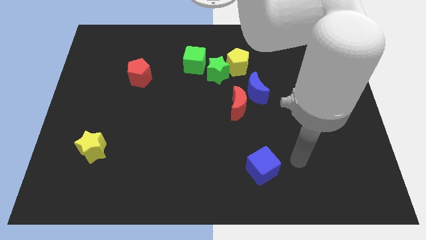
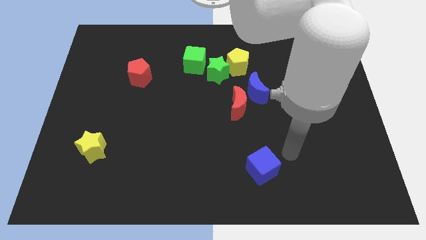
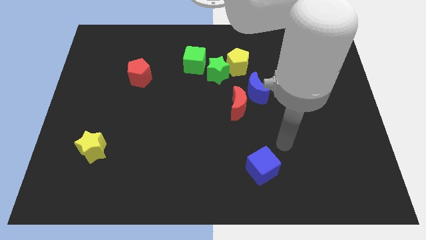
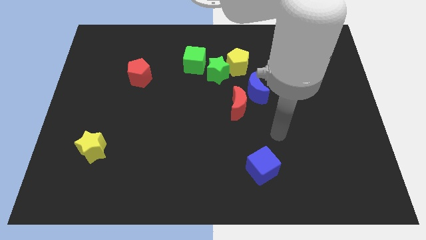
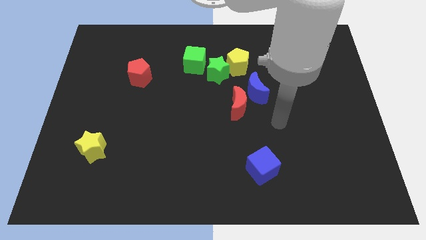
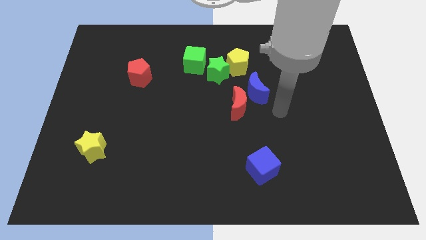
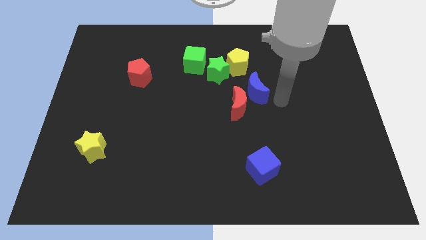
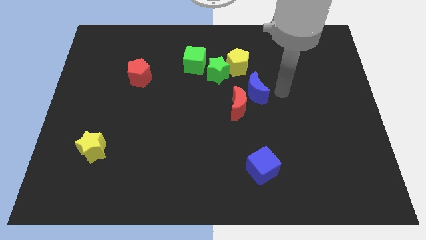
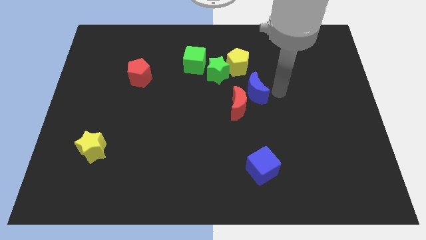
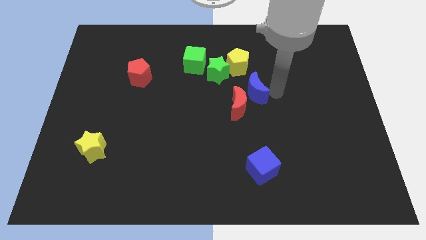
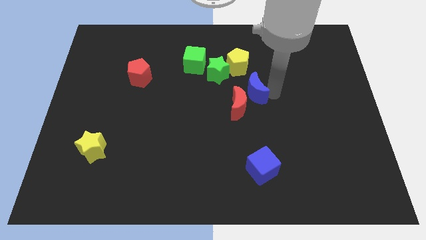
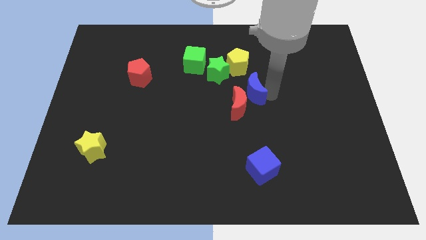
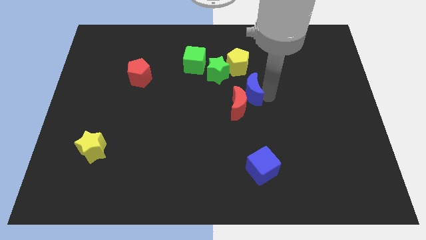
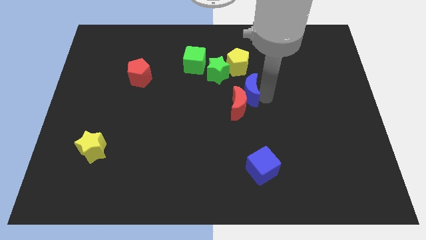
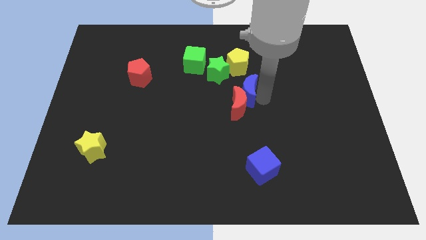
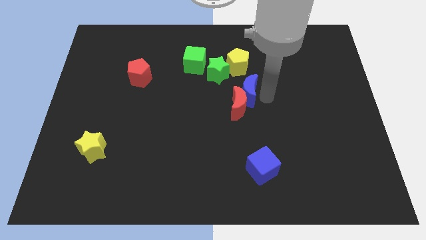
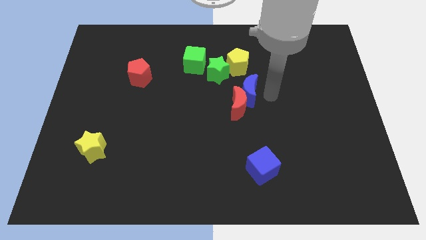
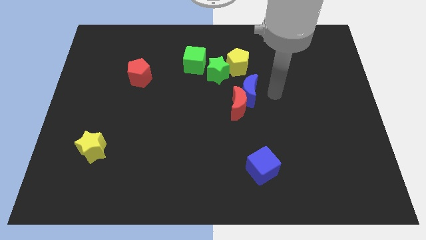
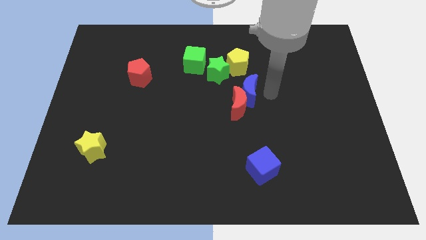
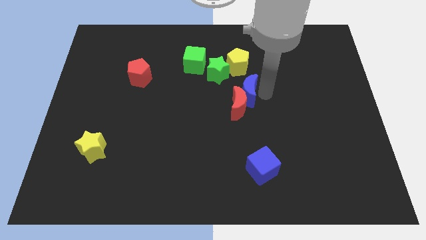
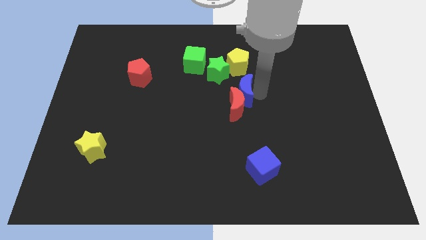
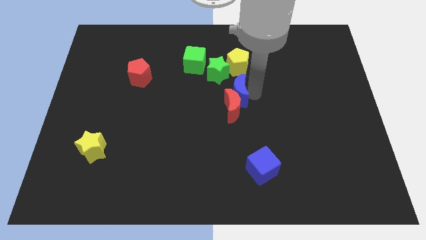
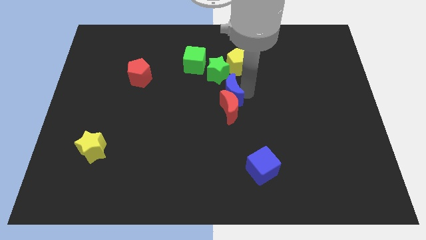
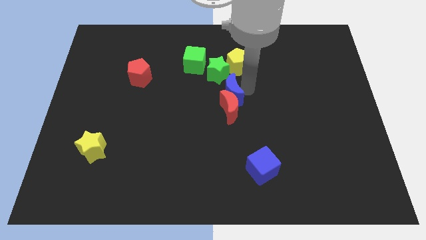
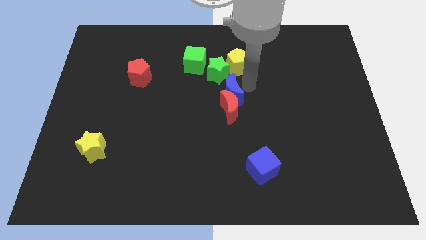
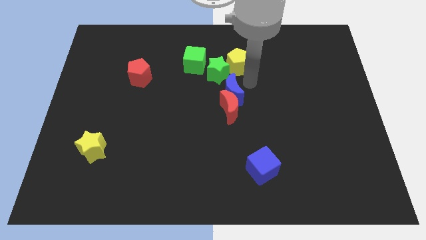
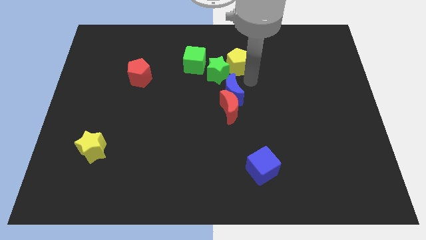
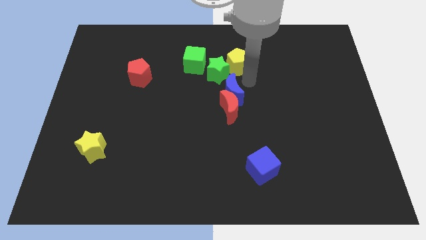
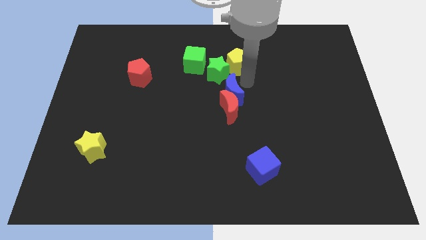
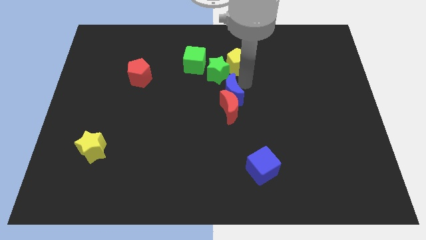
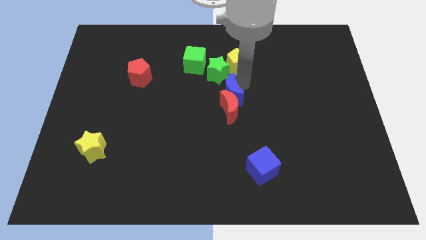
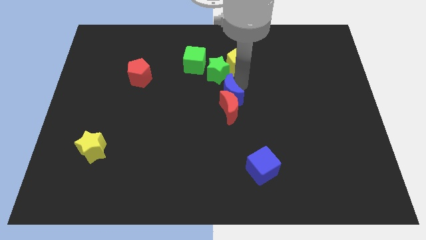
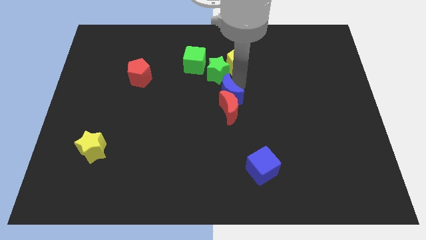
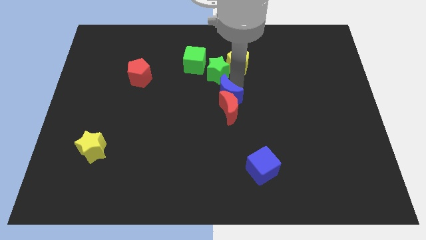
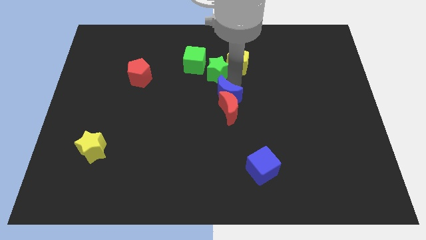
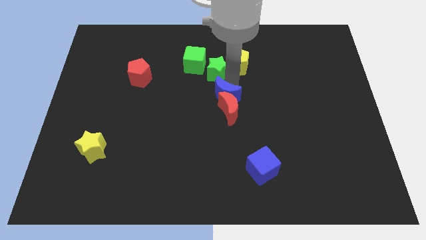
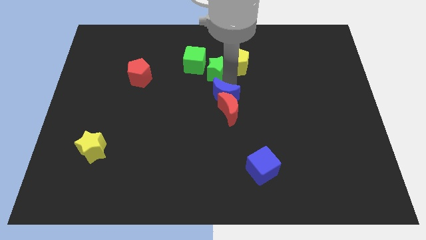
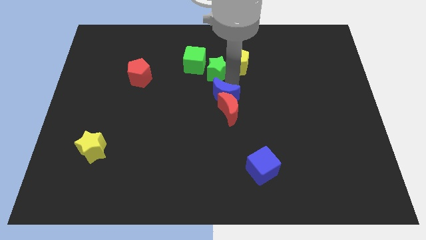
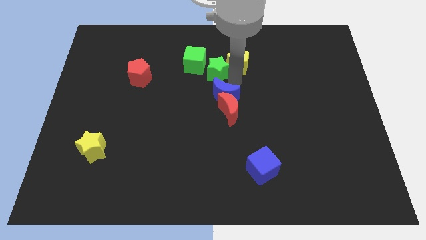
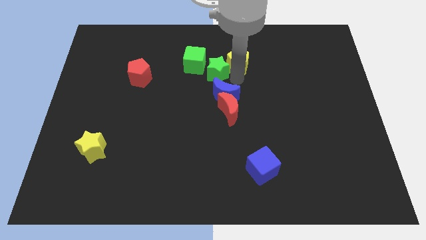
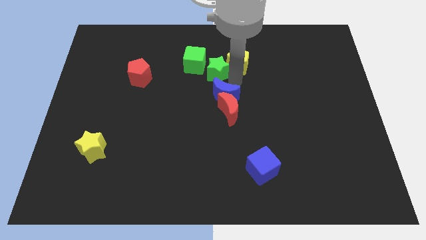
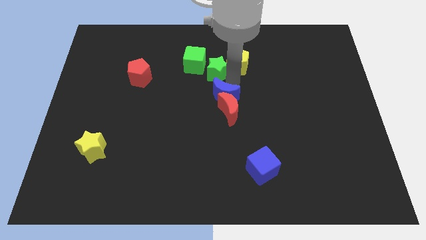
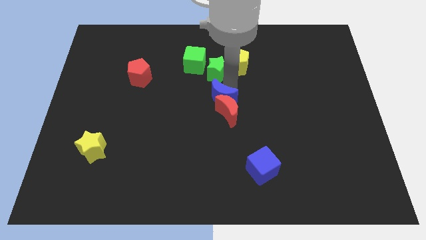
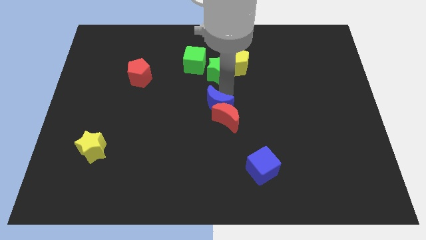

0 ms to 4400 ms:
slightly push the blue moon downwards and left

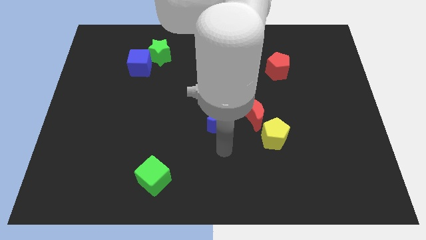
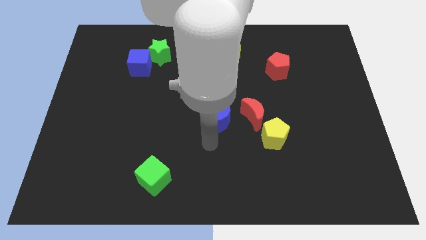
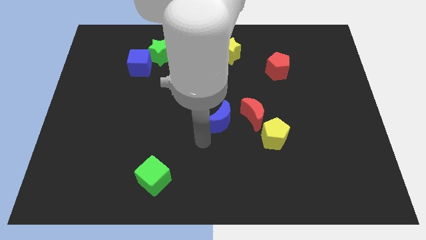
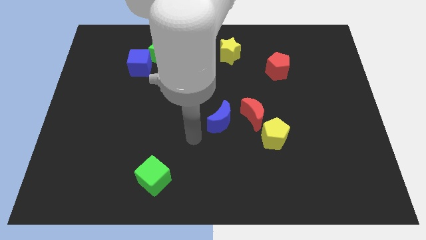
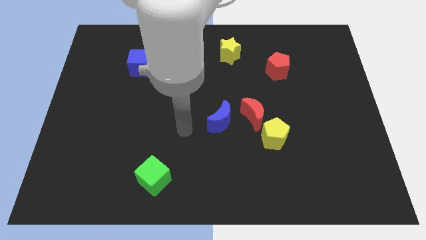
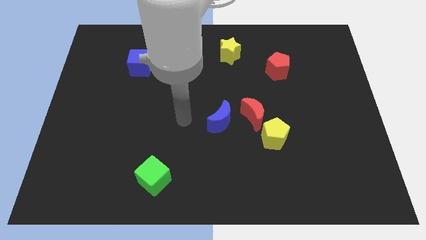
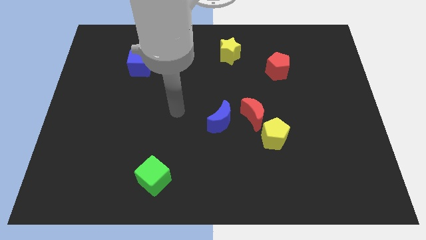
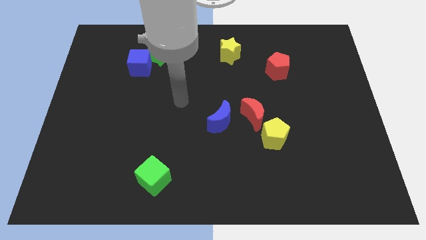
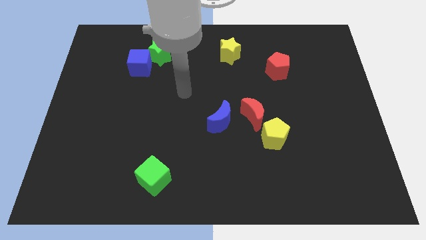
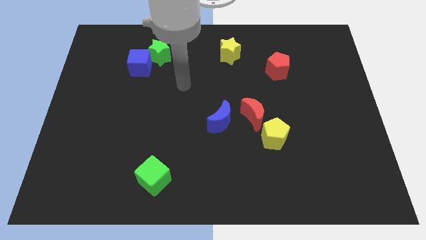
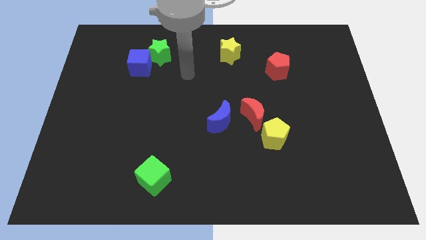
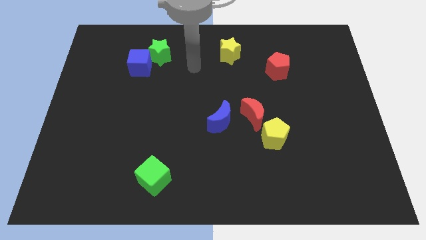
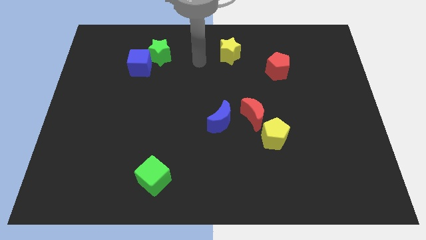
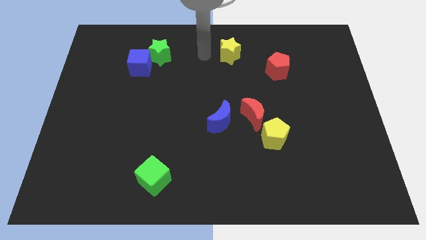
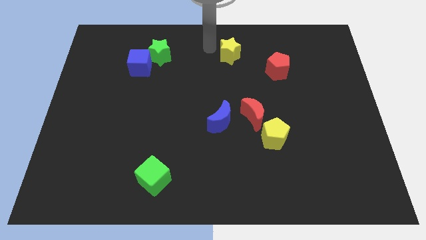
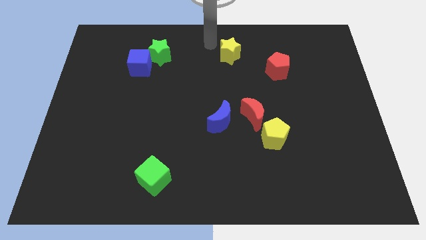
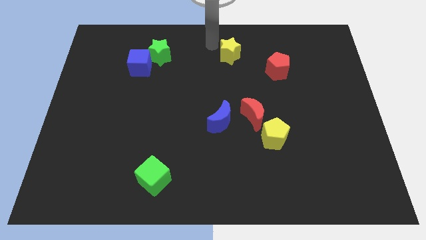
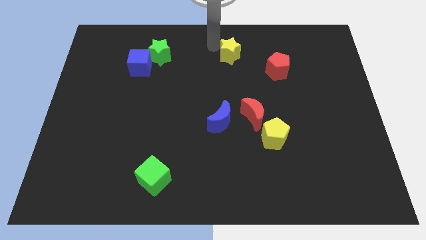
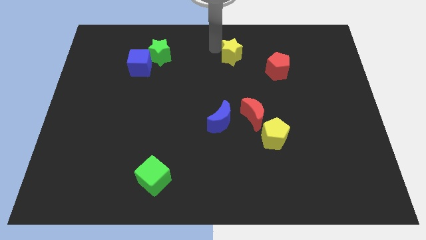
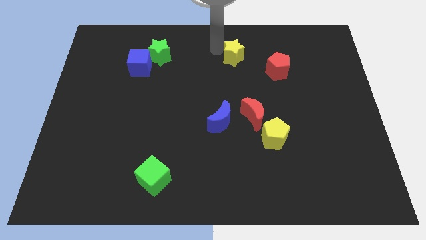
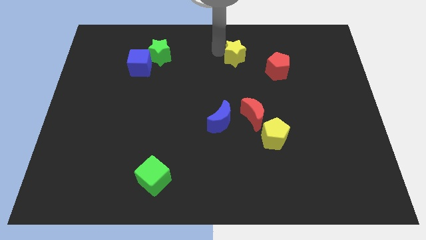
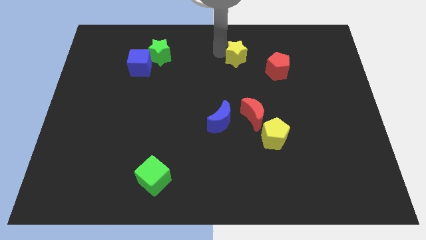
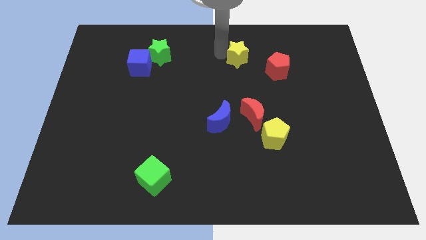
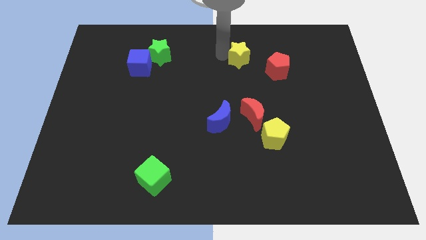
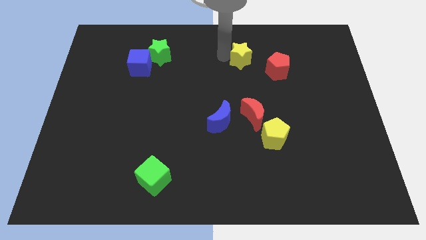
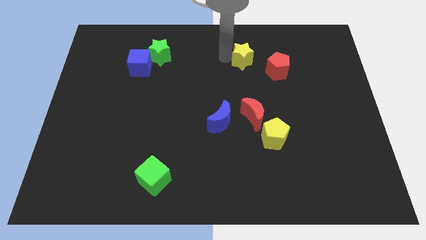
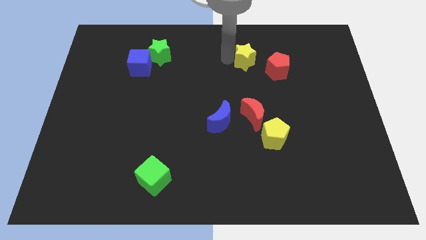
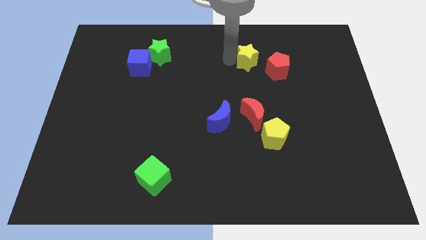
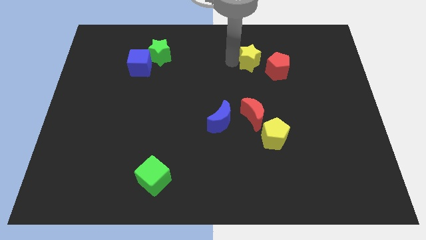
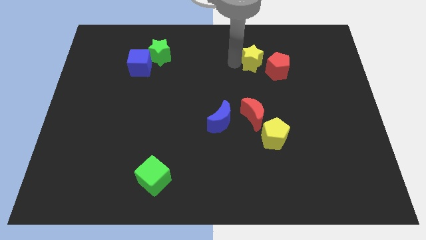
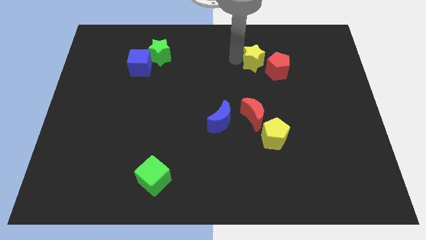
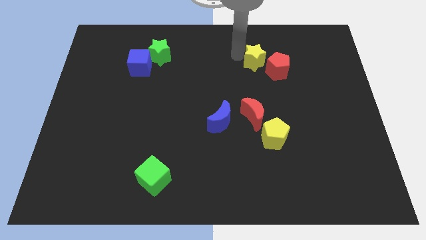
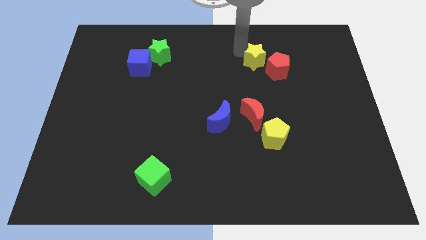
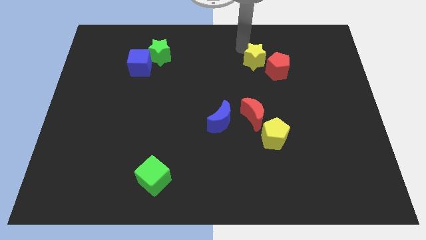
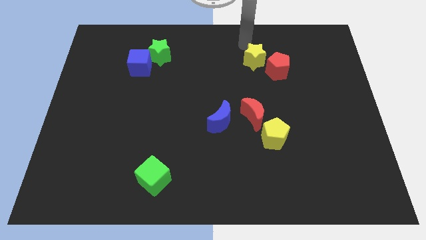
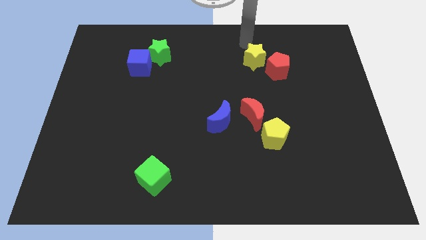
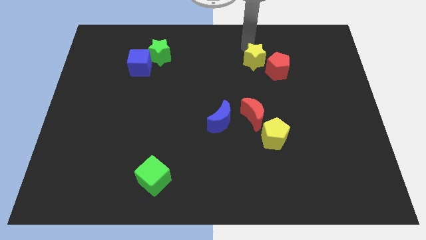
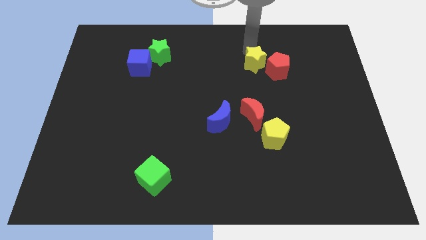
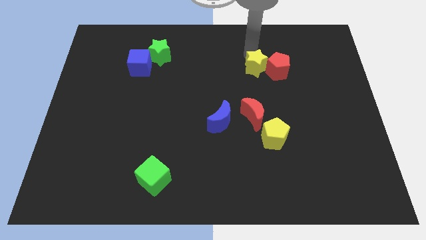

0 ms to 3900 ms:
slightly move the yellow star down and then to the right

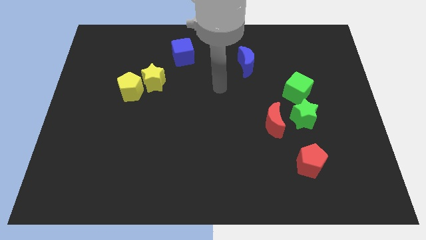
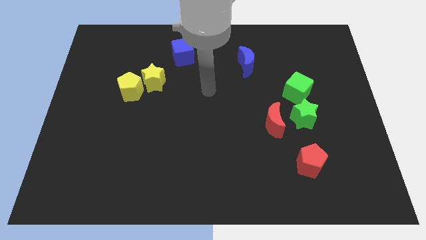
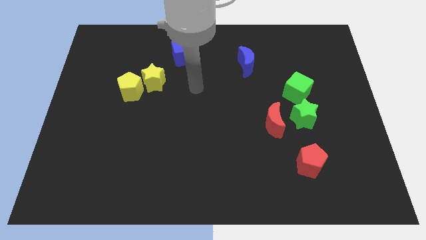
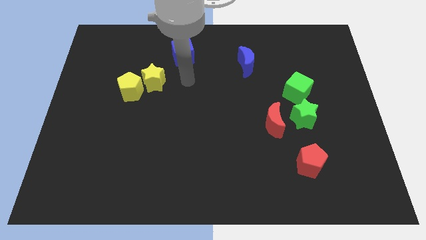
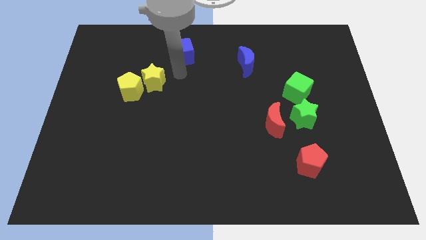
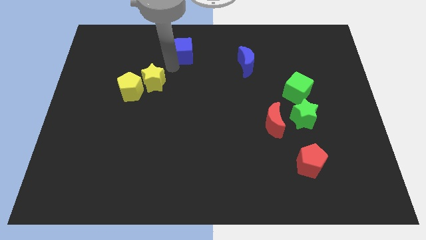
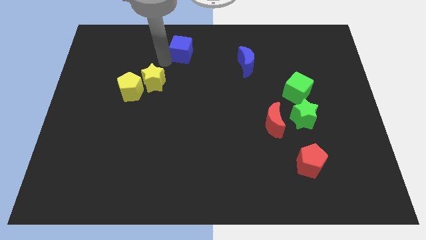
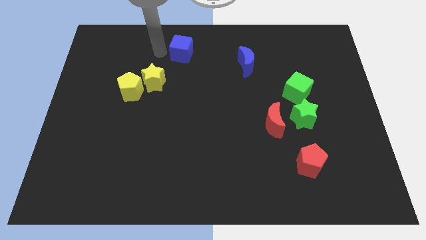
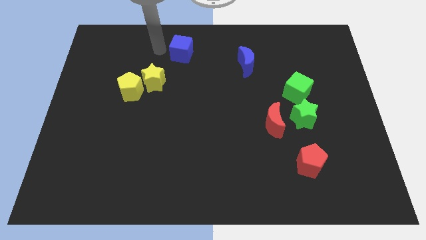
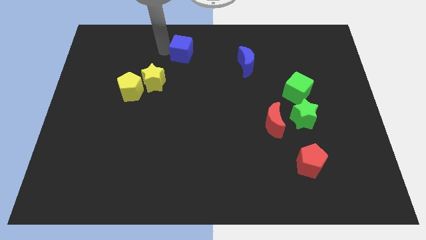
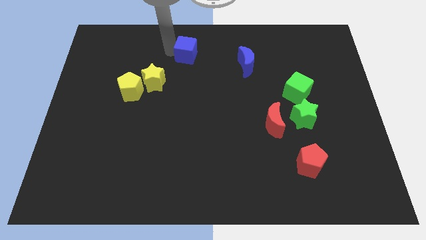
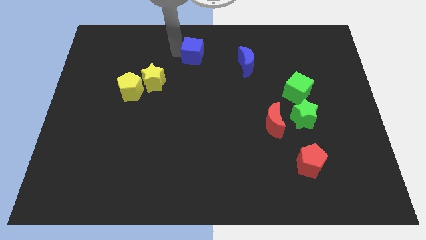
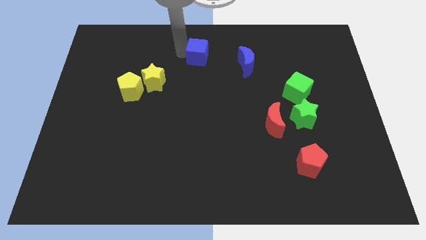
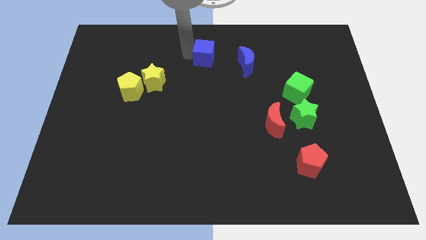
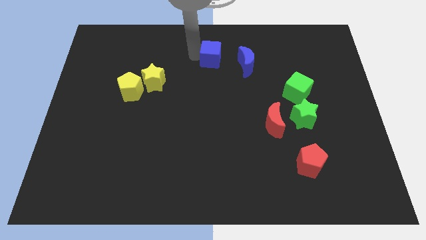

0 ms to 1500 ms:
slightly push the blue cube right
